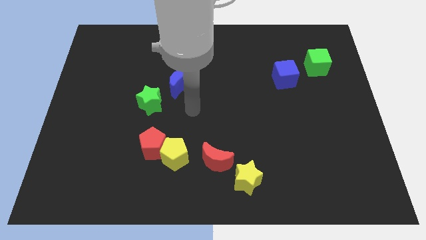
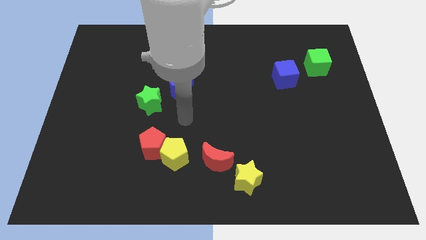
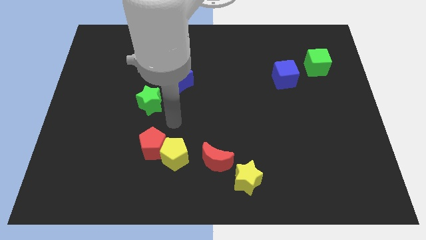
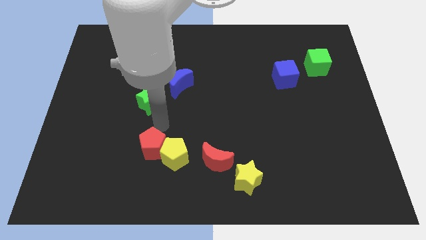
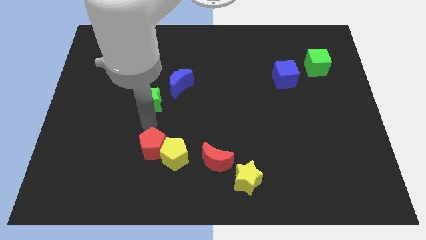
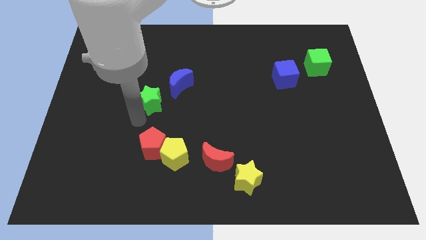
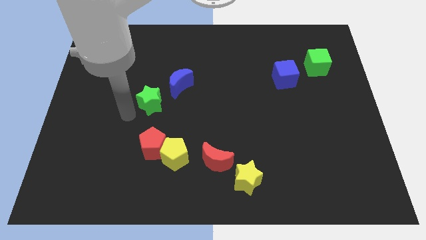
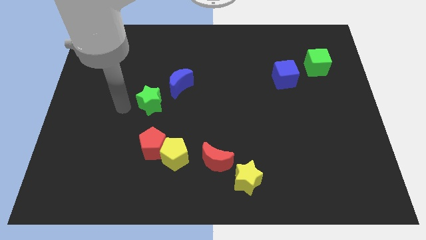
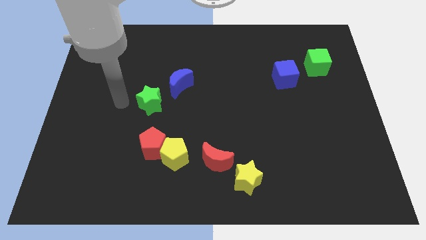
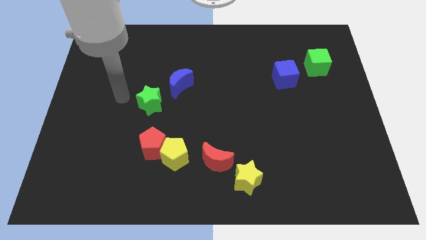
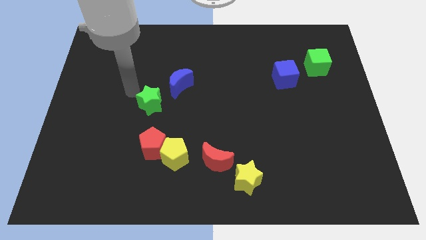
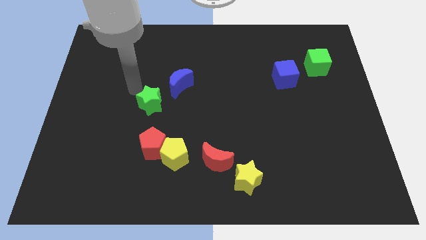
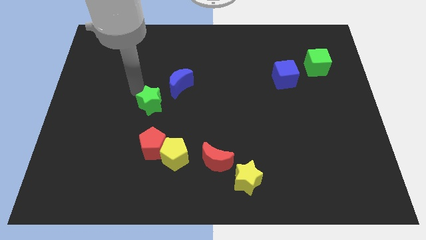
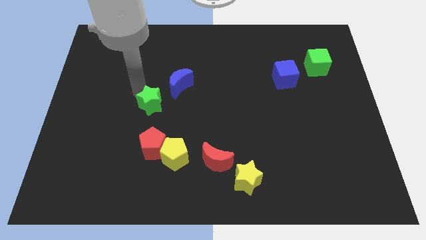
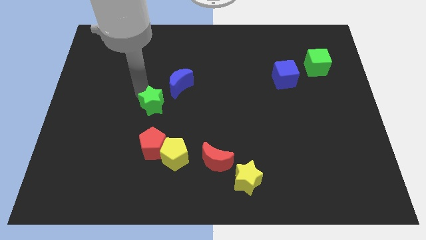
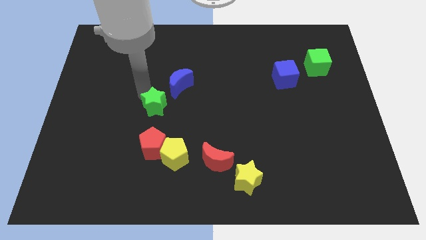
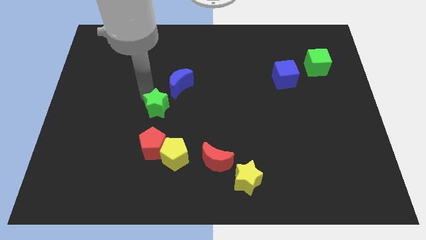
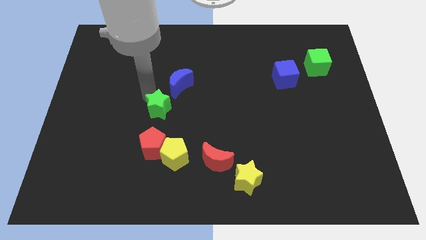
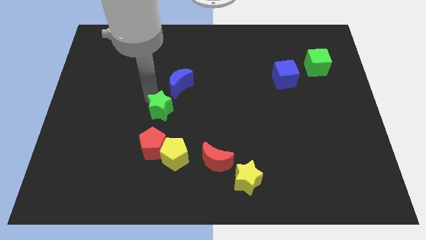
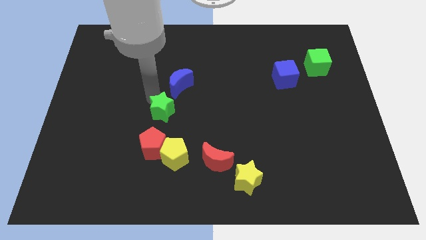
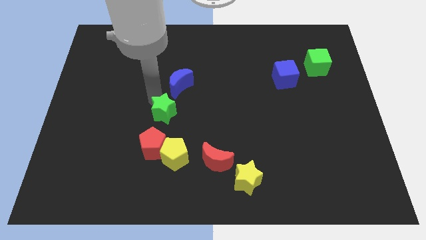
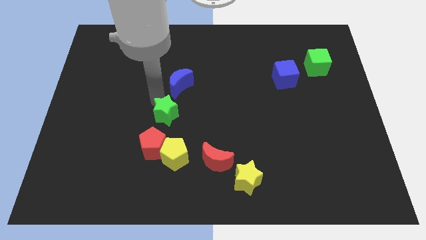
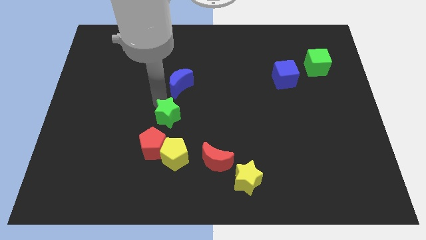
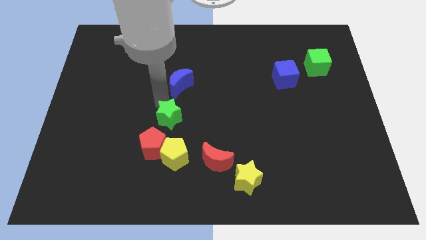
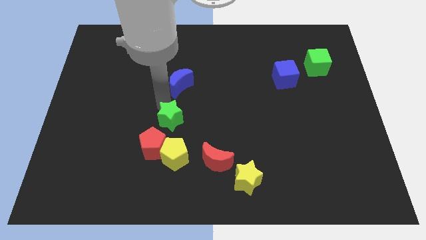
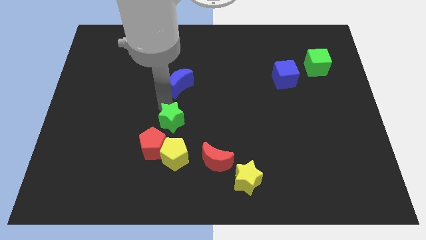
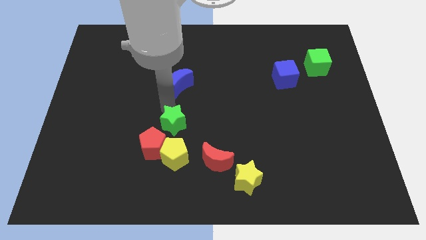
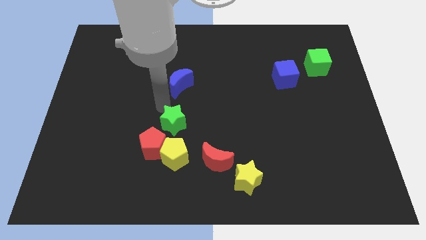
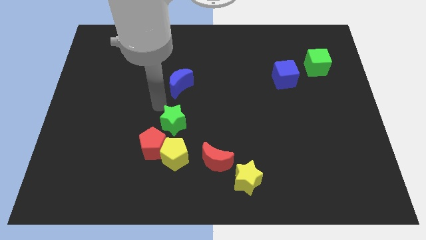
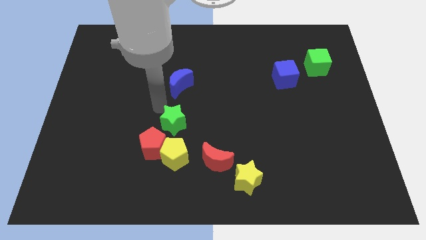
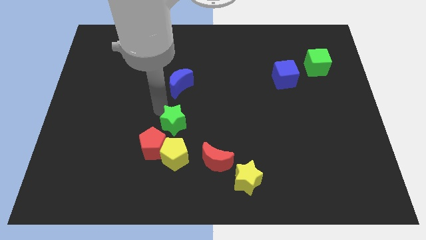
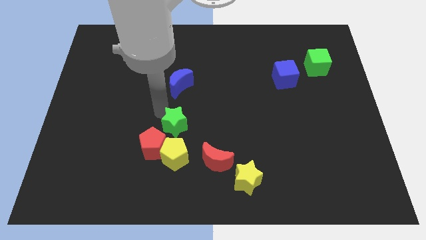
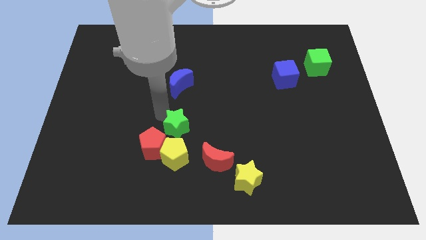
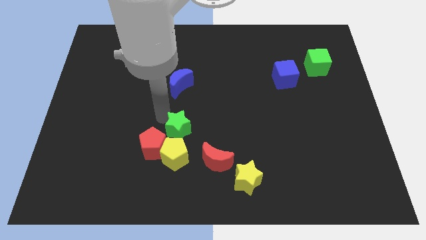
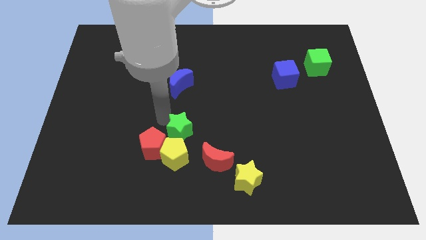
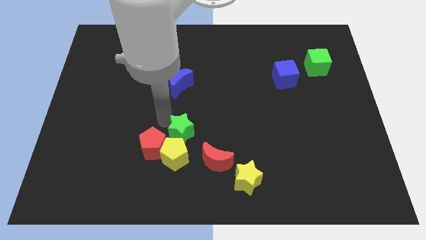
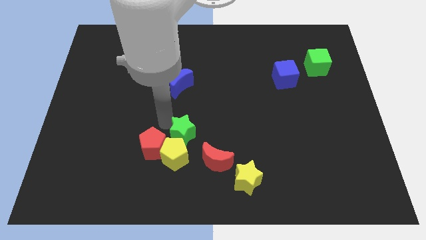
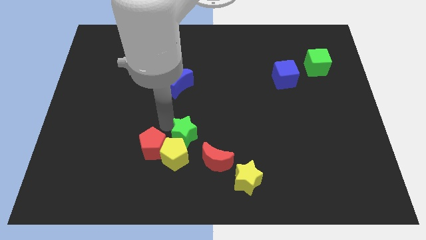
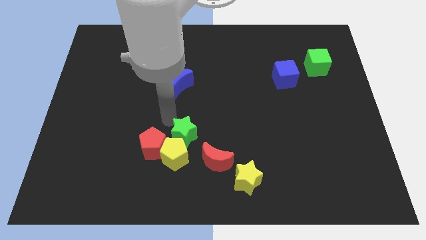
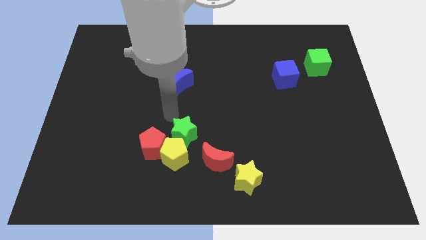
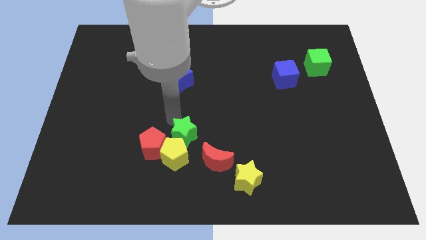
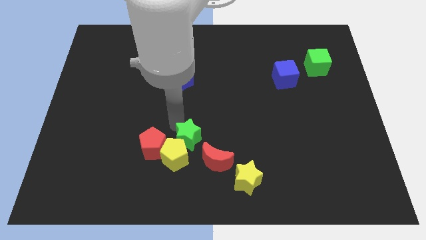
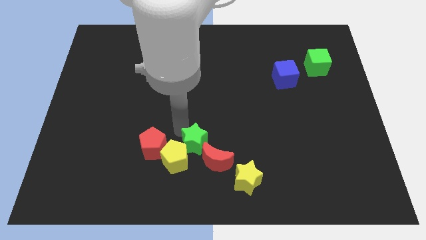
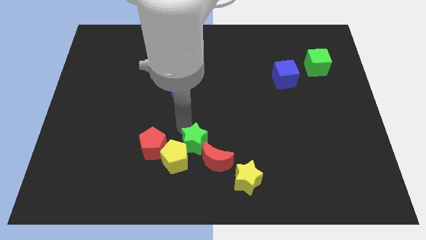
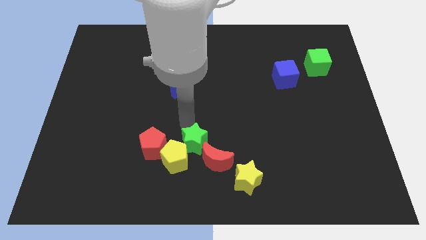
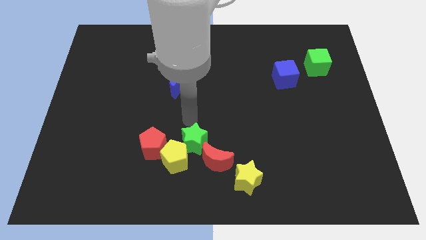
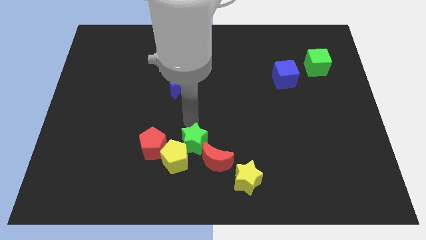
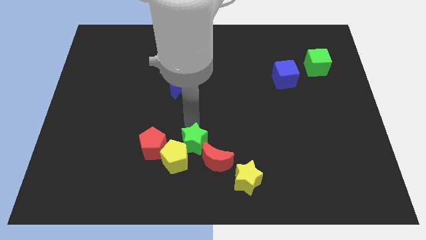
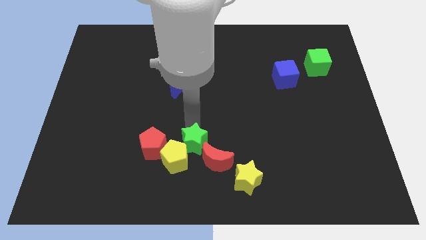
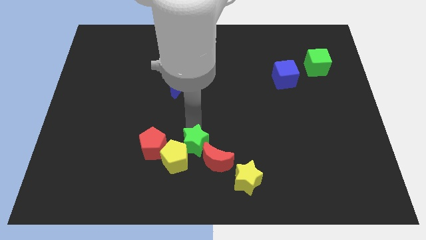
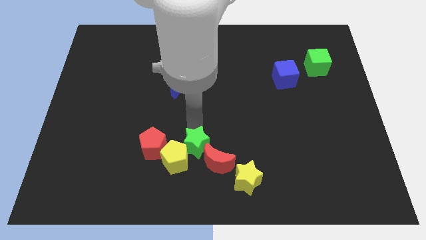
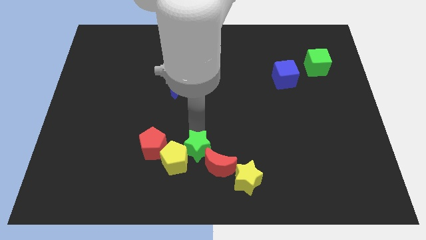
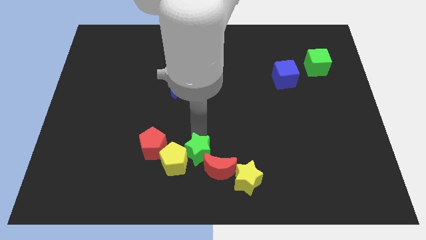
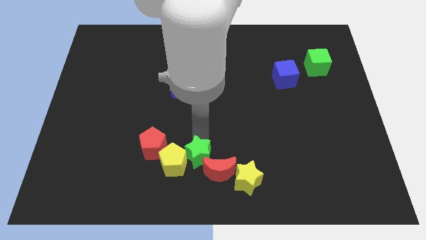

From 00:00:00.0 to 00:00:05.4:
put the green star to the bottom

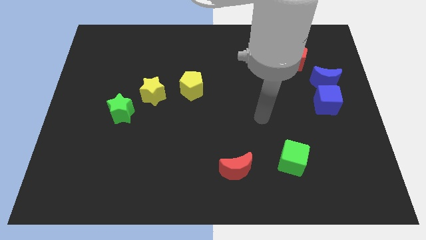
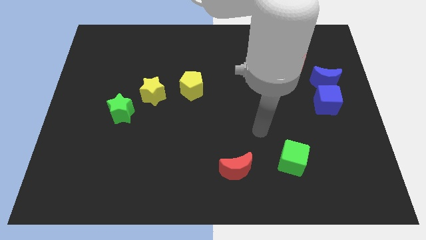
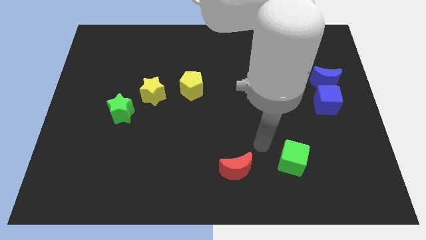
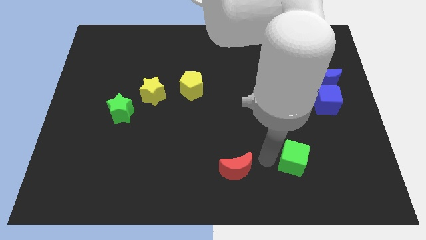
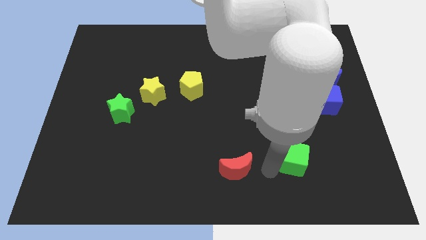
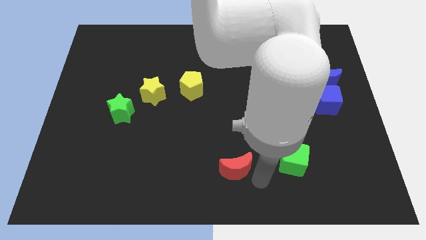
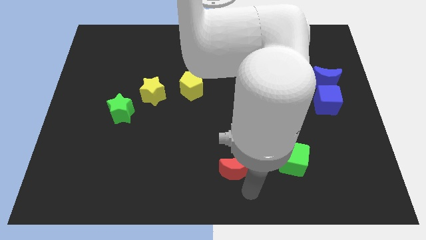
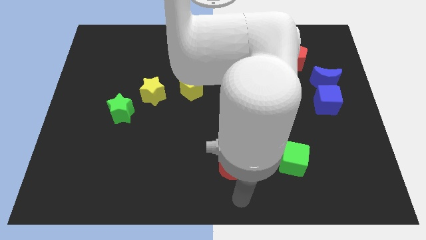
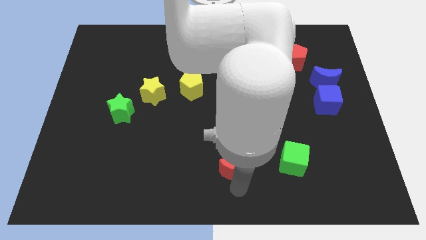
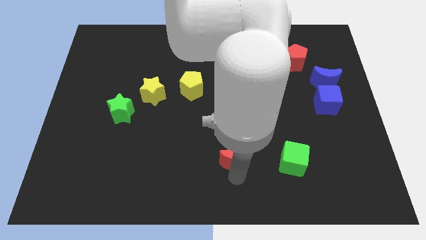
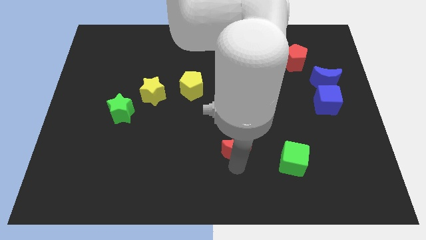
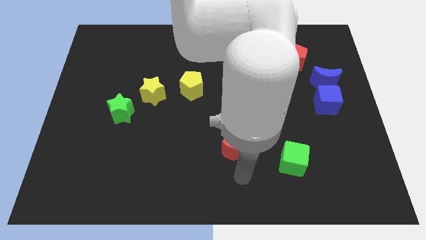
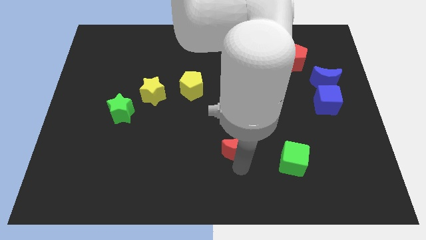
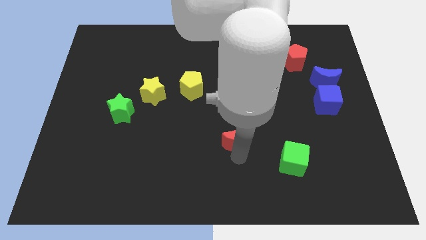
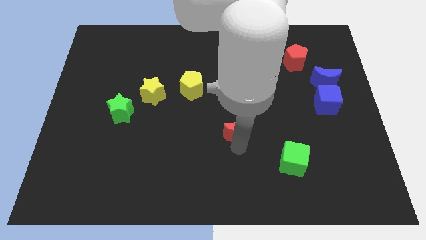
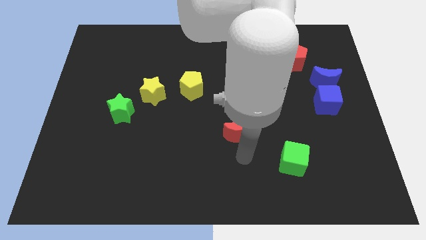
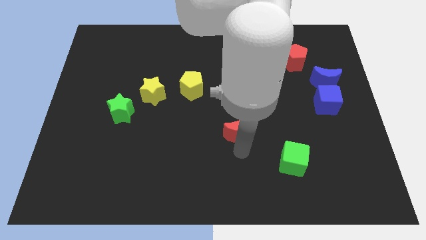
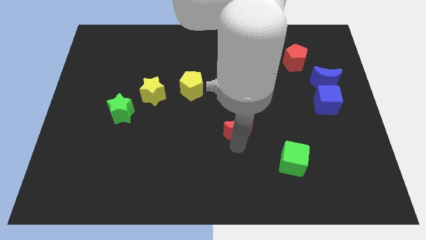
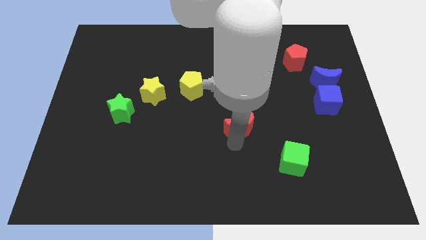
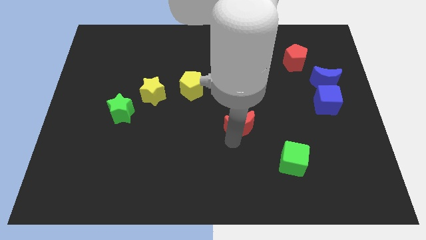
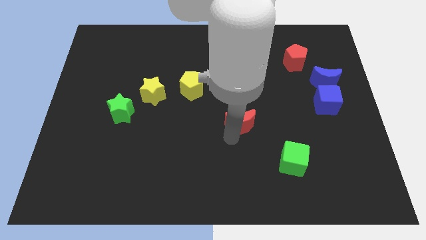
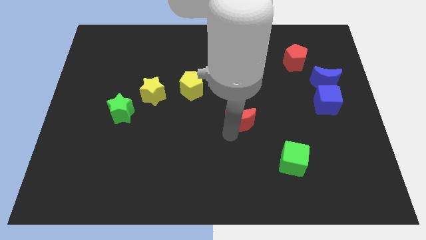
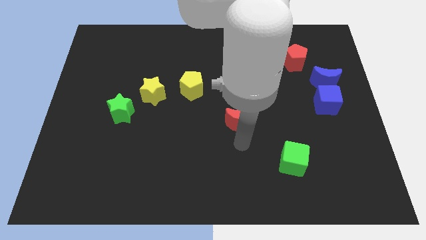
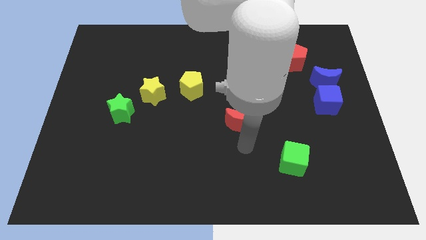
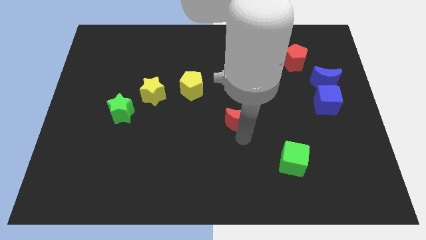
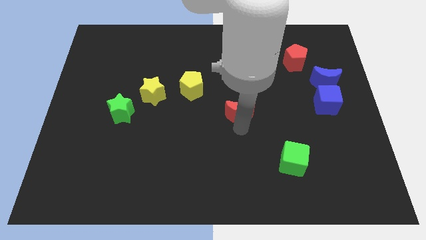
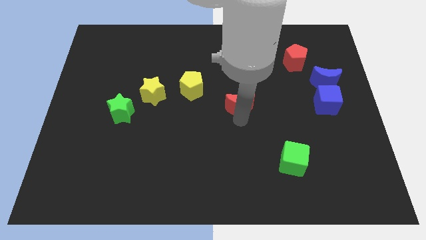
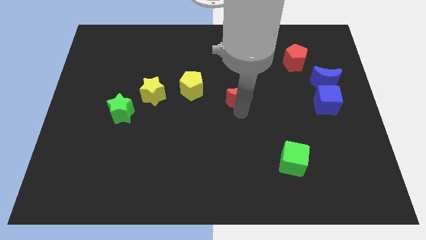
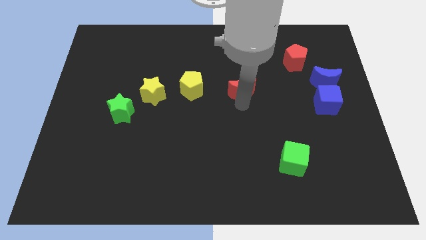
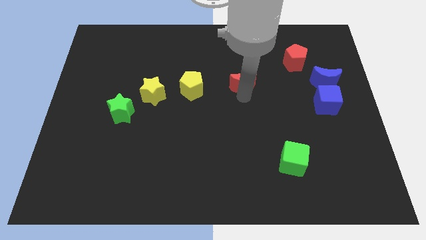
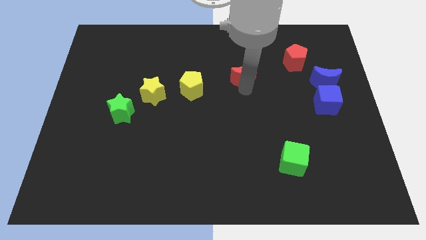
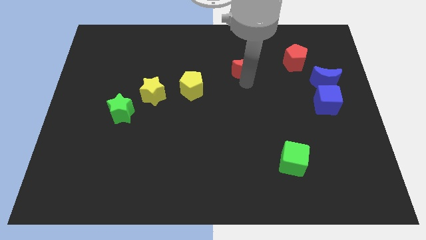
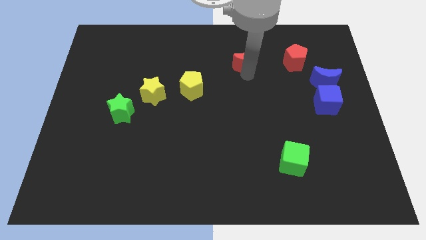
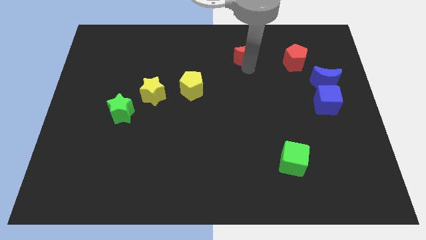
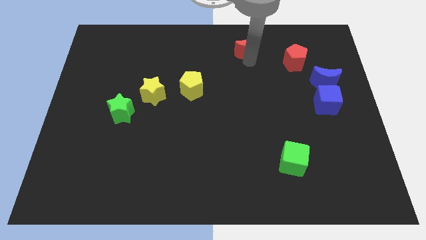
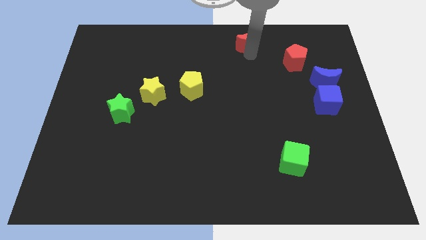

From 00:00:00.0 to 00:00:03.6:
slide the red moon to the top side
